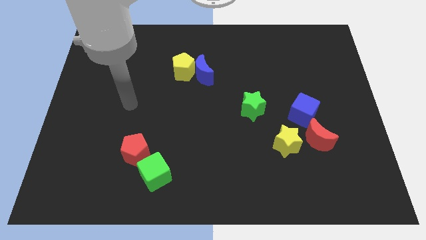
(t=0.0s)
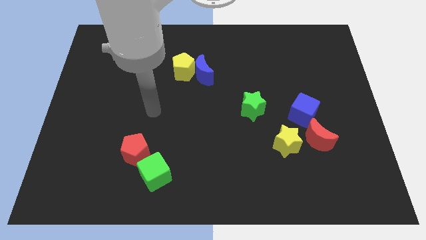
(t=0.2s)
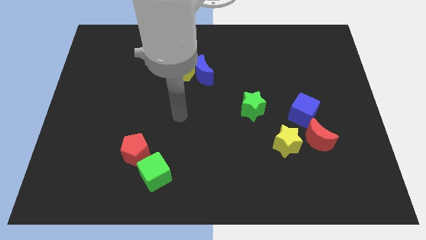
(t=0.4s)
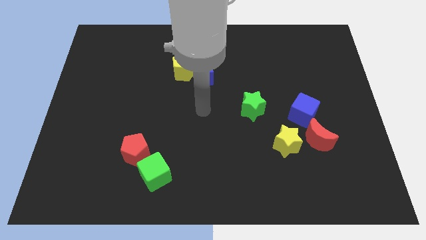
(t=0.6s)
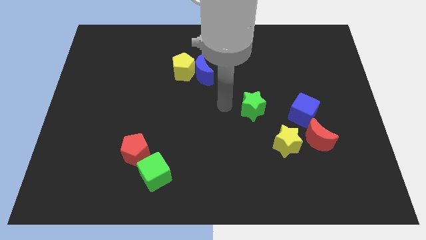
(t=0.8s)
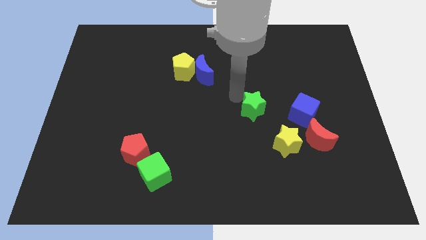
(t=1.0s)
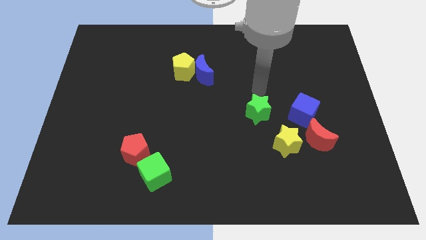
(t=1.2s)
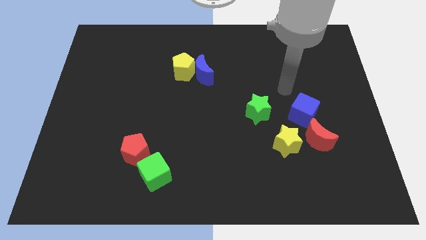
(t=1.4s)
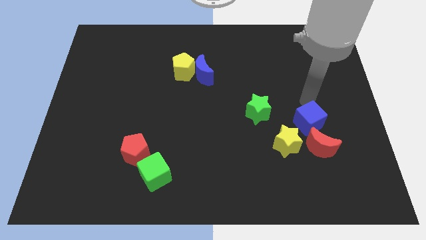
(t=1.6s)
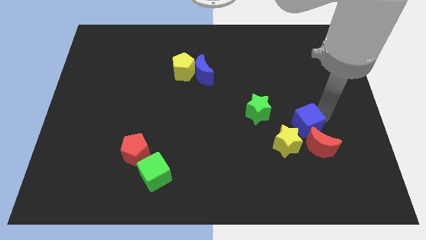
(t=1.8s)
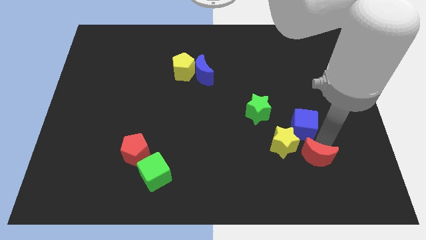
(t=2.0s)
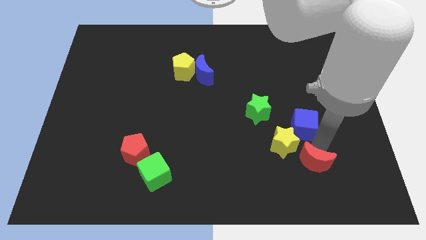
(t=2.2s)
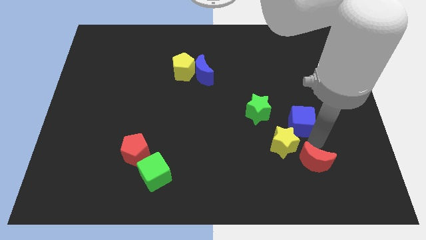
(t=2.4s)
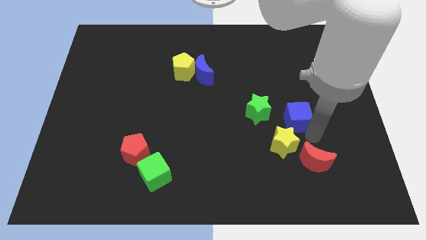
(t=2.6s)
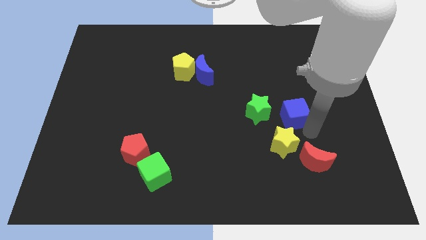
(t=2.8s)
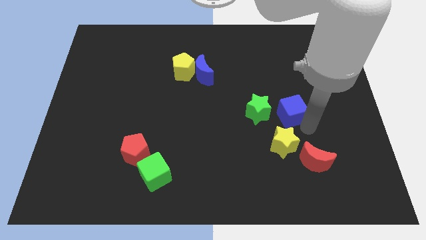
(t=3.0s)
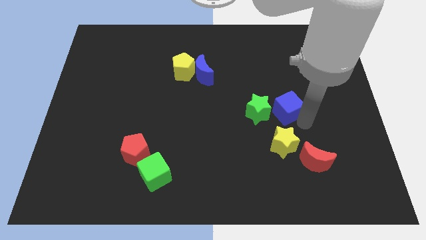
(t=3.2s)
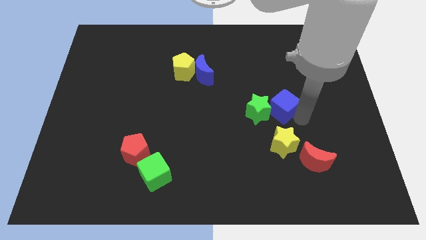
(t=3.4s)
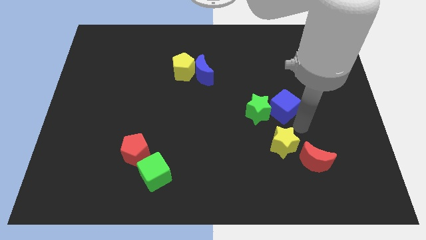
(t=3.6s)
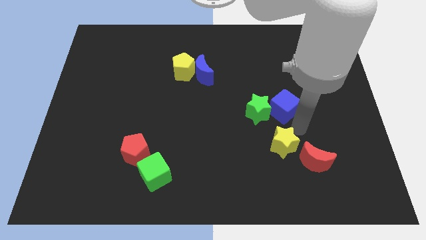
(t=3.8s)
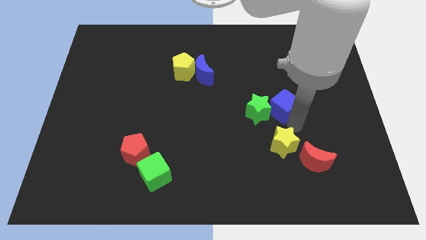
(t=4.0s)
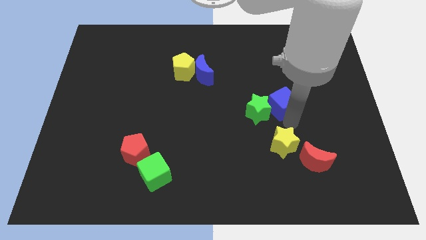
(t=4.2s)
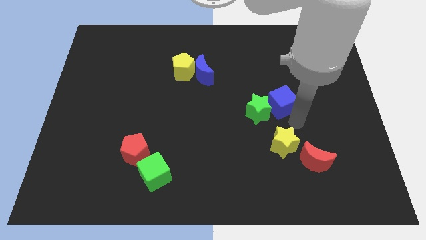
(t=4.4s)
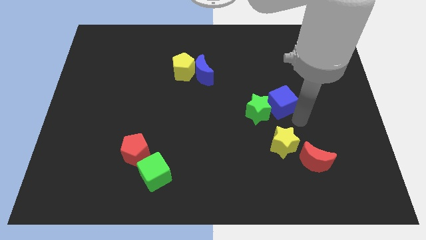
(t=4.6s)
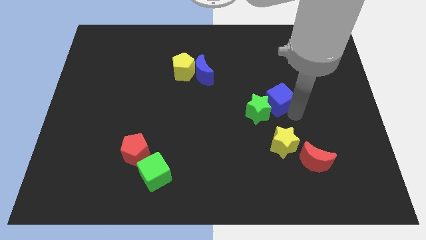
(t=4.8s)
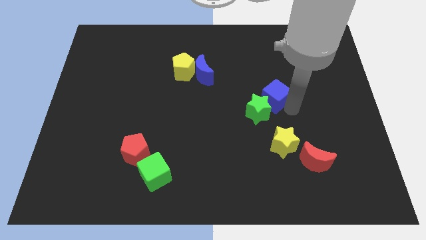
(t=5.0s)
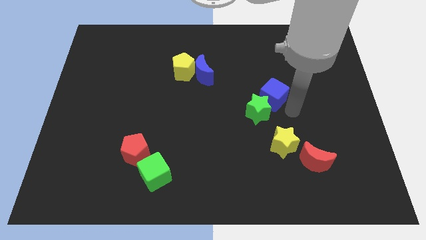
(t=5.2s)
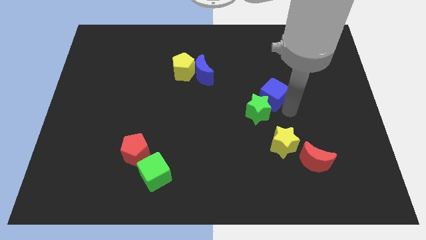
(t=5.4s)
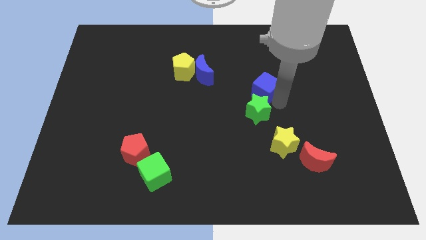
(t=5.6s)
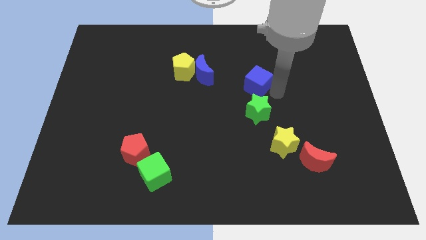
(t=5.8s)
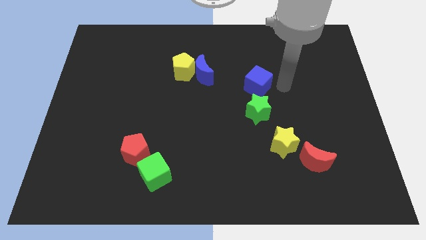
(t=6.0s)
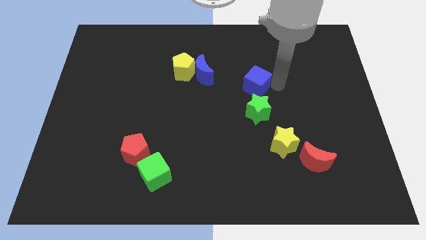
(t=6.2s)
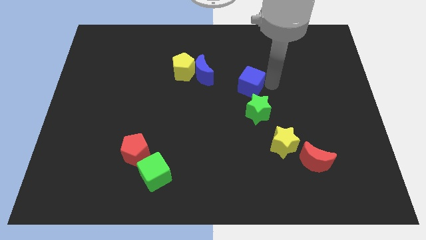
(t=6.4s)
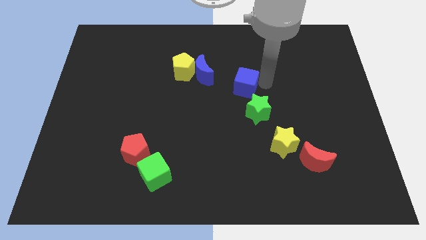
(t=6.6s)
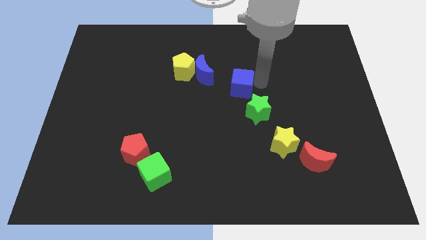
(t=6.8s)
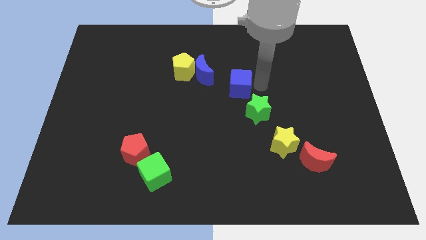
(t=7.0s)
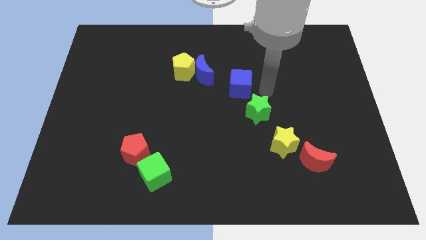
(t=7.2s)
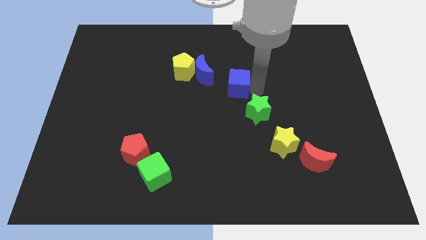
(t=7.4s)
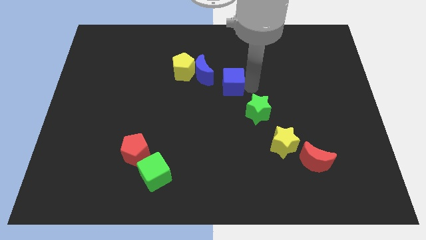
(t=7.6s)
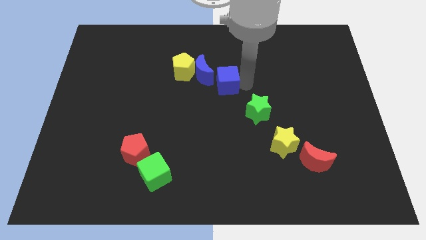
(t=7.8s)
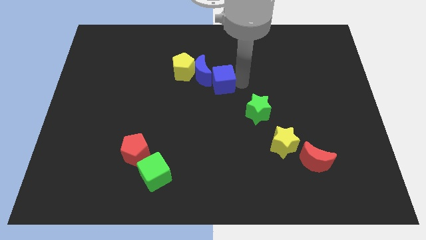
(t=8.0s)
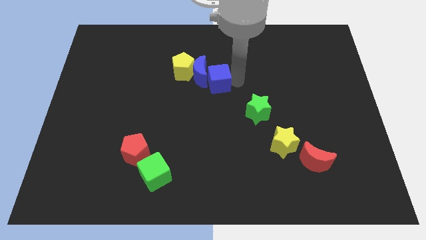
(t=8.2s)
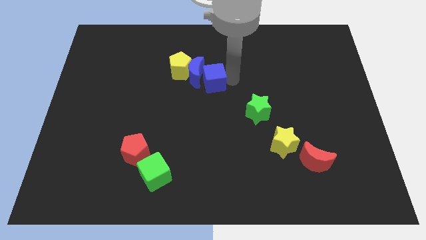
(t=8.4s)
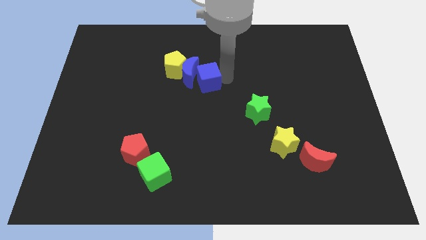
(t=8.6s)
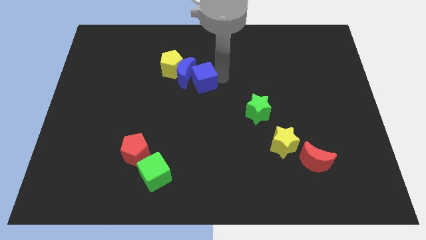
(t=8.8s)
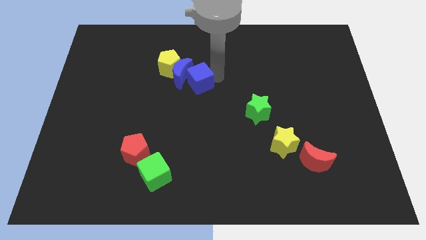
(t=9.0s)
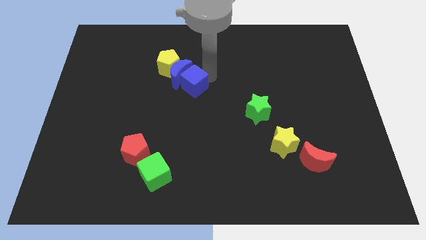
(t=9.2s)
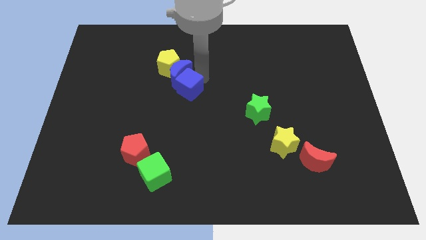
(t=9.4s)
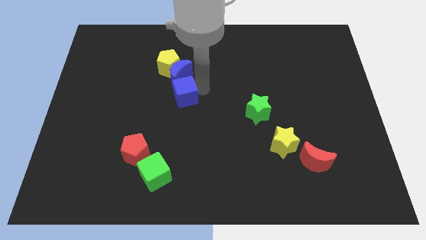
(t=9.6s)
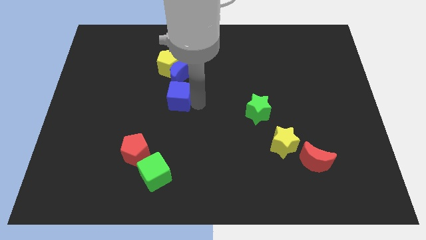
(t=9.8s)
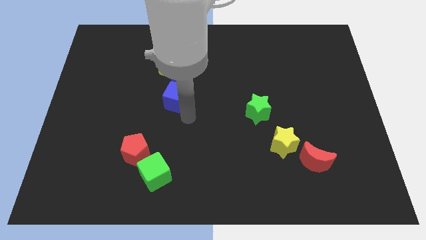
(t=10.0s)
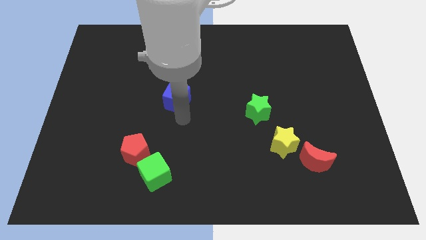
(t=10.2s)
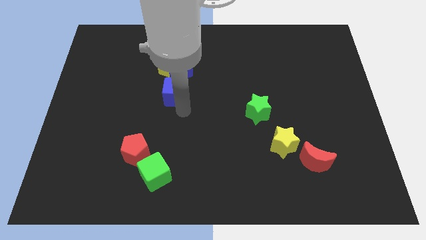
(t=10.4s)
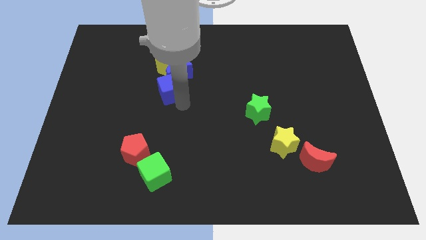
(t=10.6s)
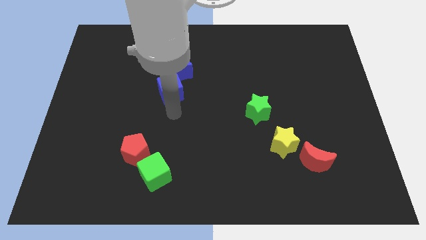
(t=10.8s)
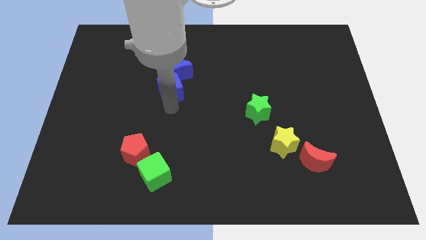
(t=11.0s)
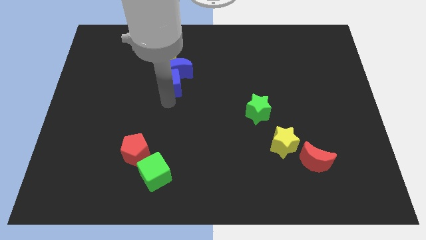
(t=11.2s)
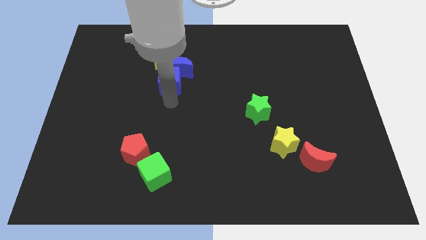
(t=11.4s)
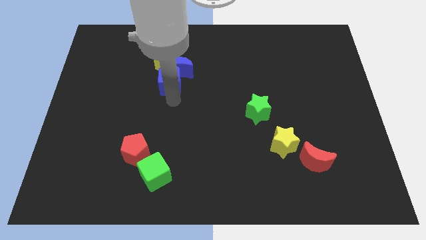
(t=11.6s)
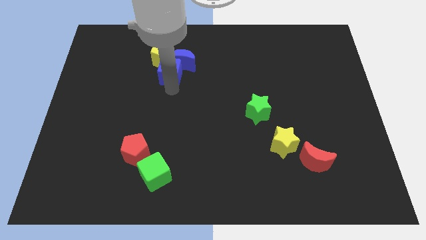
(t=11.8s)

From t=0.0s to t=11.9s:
put the blue cube close to the yellow pentagon

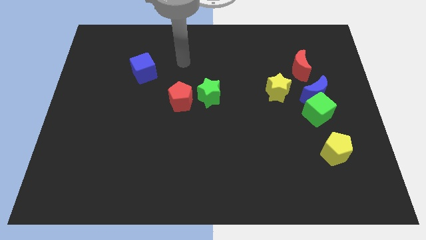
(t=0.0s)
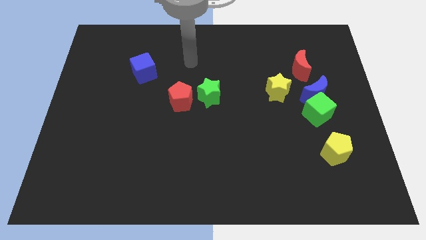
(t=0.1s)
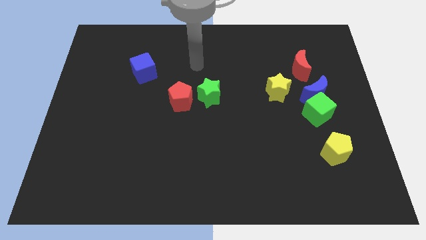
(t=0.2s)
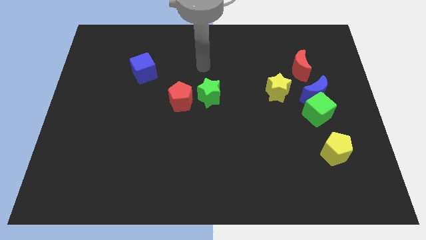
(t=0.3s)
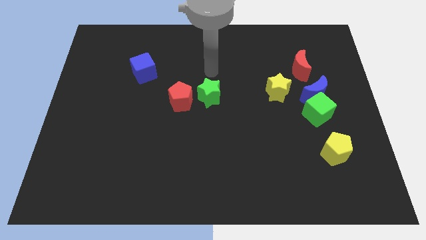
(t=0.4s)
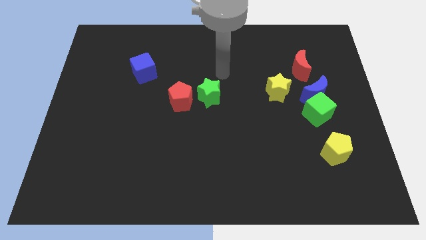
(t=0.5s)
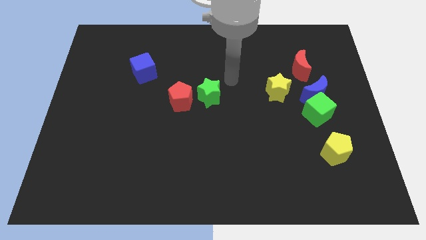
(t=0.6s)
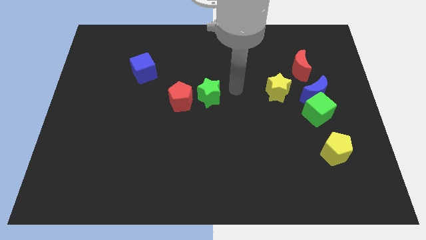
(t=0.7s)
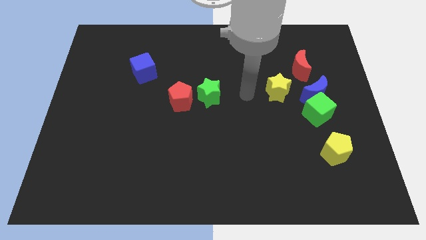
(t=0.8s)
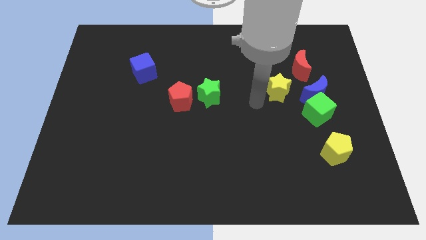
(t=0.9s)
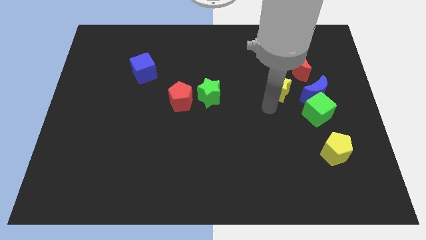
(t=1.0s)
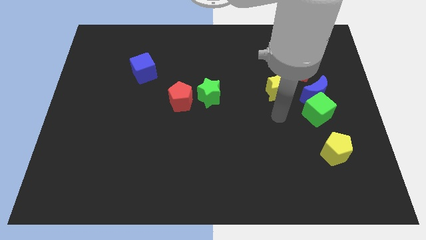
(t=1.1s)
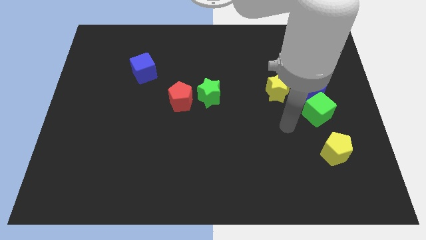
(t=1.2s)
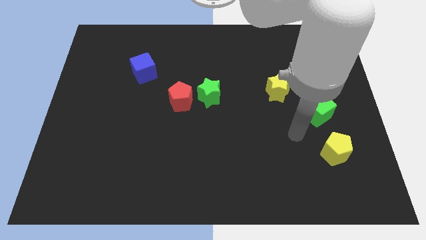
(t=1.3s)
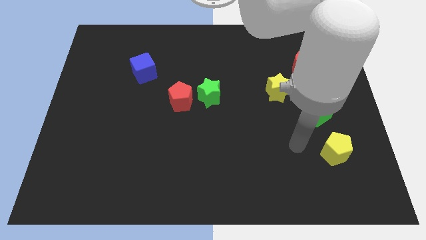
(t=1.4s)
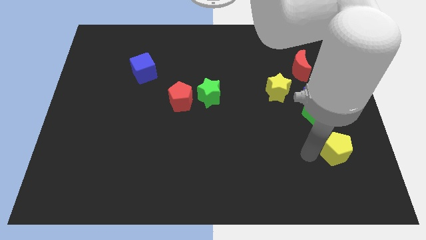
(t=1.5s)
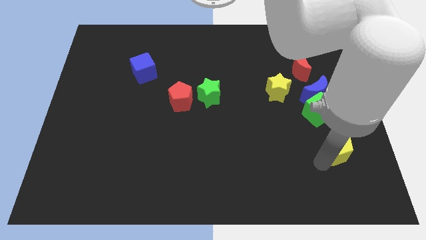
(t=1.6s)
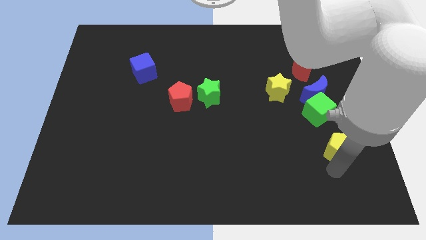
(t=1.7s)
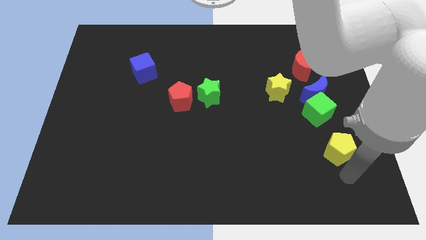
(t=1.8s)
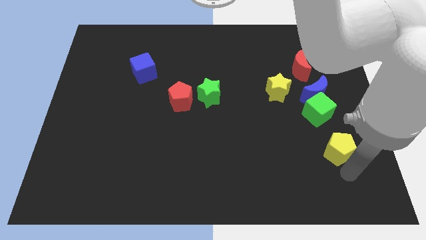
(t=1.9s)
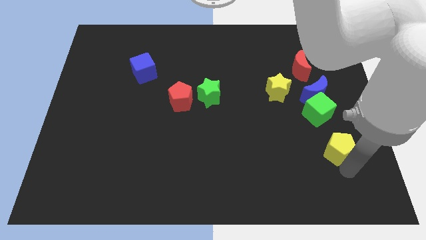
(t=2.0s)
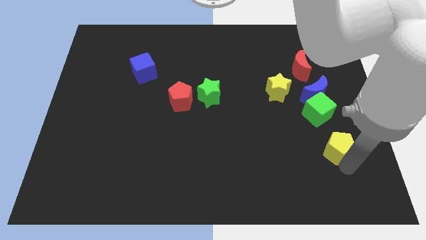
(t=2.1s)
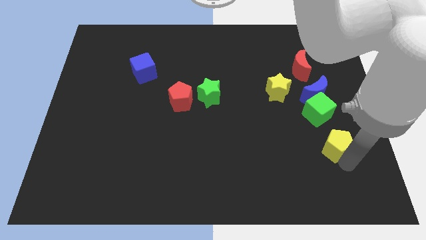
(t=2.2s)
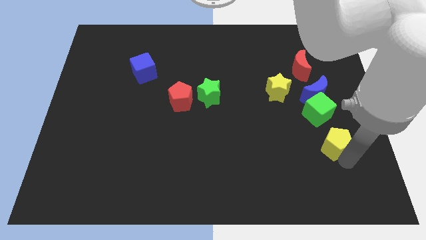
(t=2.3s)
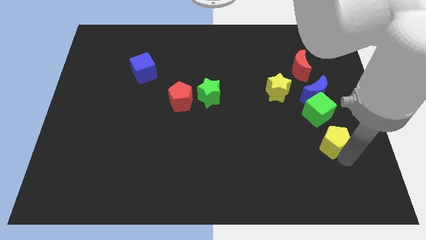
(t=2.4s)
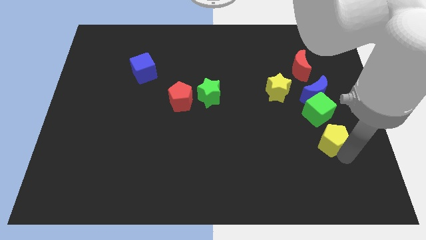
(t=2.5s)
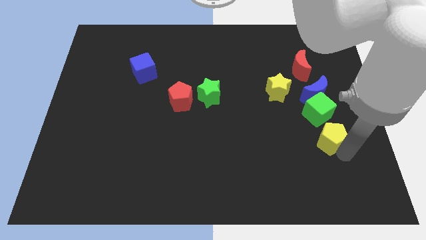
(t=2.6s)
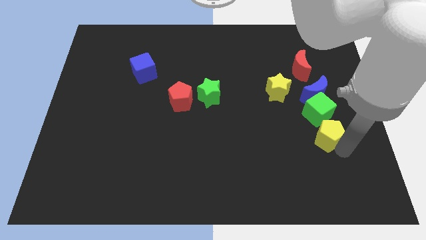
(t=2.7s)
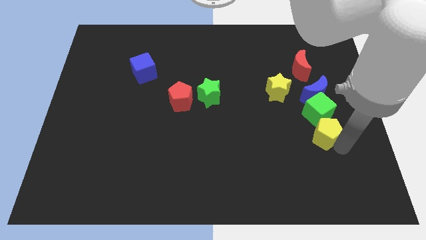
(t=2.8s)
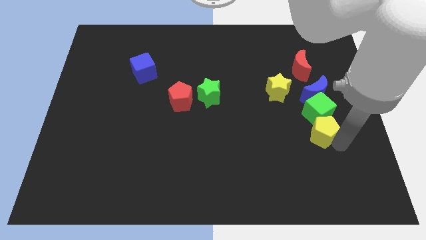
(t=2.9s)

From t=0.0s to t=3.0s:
push the yellow pentagon towards the green cube
